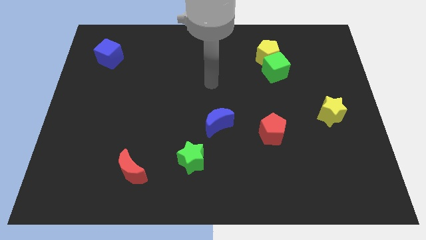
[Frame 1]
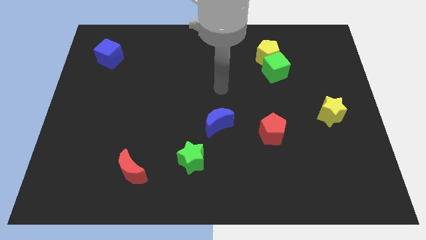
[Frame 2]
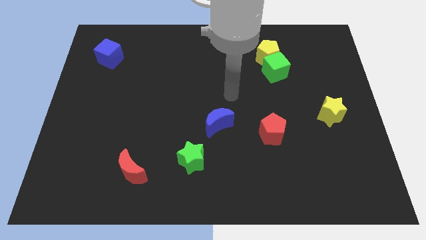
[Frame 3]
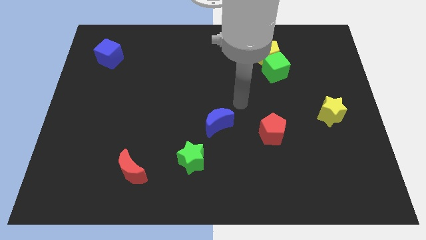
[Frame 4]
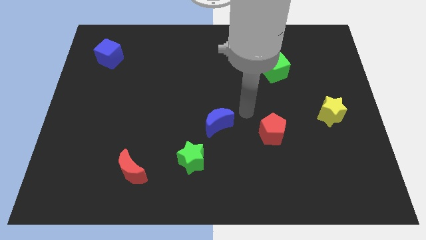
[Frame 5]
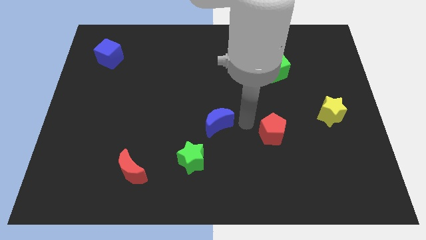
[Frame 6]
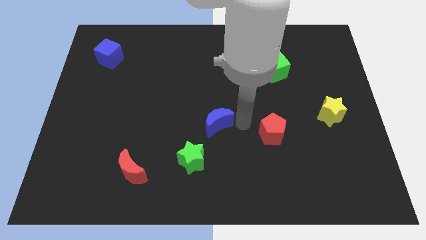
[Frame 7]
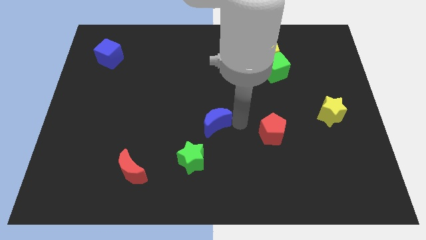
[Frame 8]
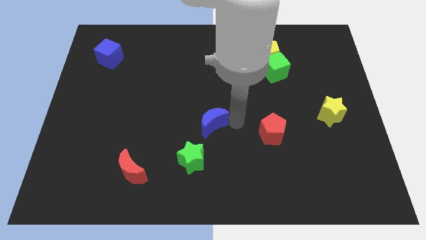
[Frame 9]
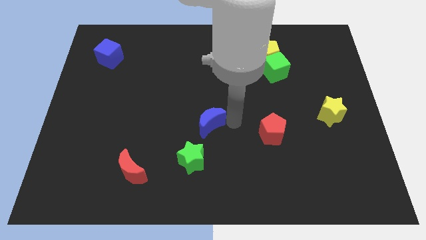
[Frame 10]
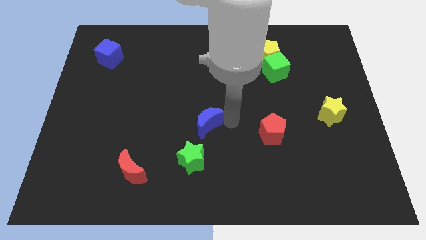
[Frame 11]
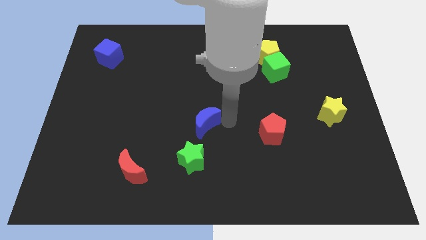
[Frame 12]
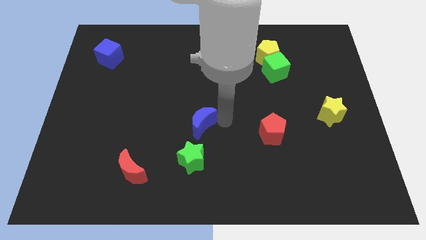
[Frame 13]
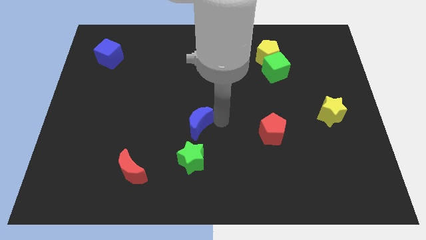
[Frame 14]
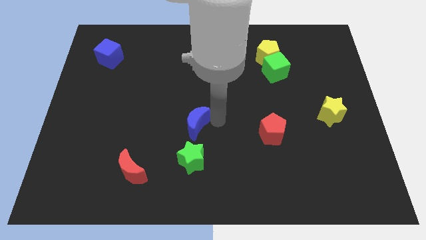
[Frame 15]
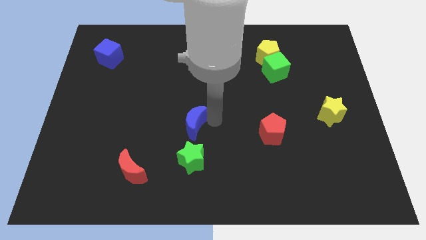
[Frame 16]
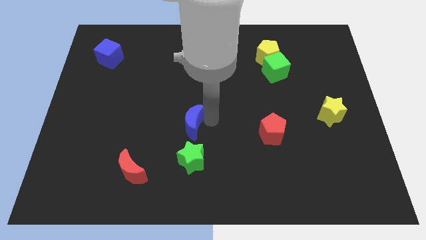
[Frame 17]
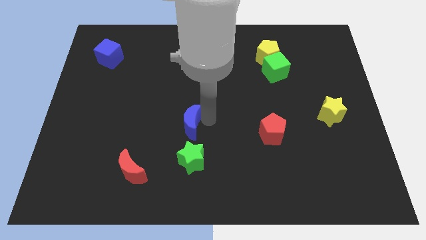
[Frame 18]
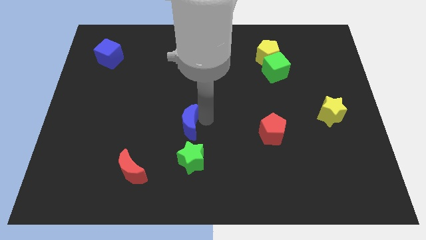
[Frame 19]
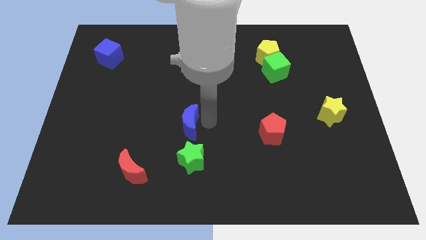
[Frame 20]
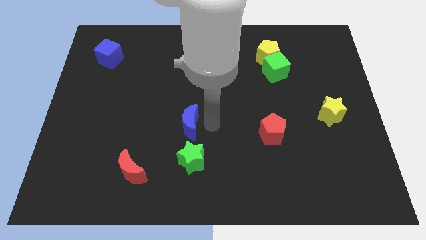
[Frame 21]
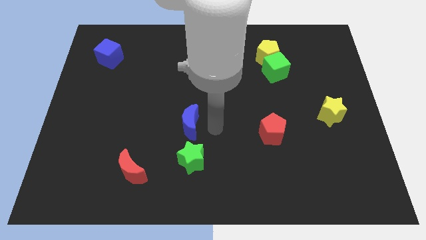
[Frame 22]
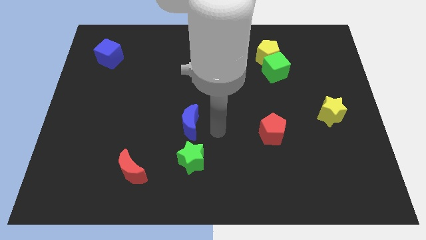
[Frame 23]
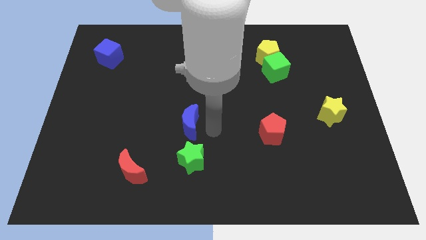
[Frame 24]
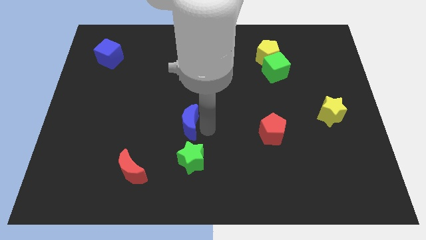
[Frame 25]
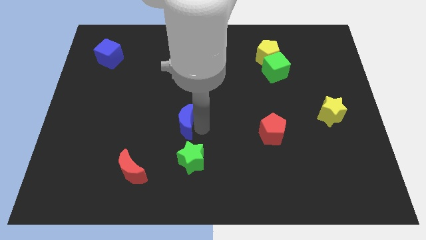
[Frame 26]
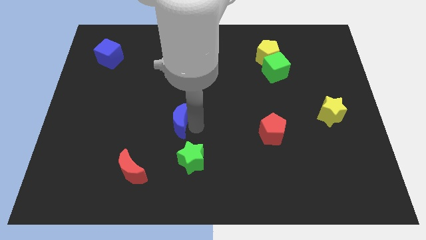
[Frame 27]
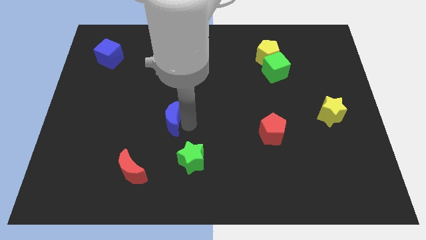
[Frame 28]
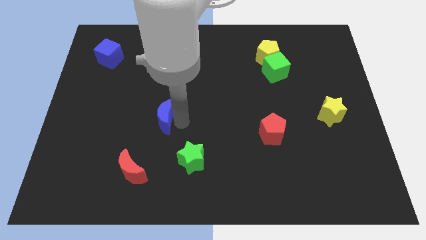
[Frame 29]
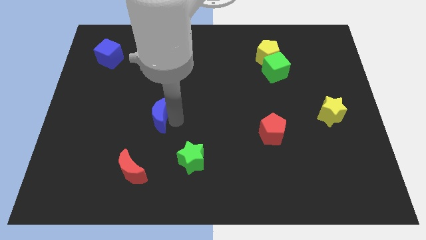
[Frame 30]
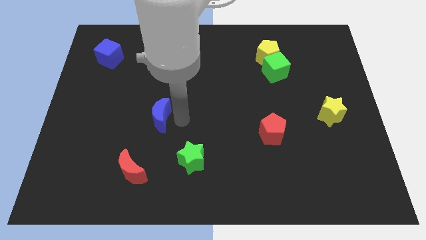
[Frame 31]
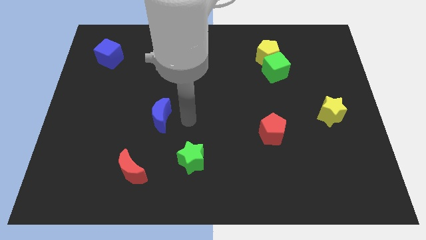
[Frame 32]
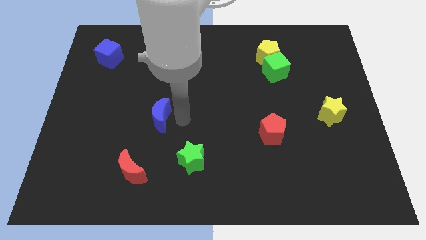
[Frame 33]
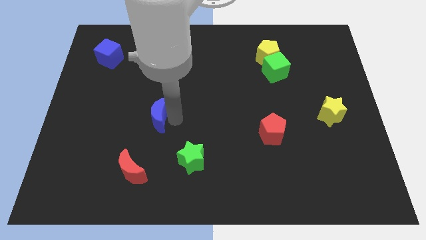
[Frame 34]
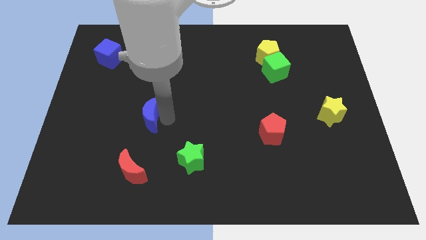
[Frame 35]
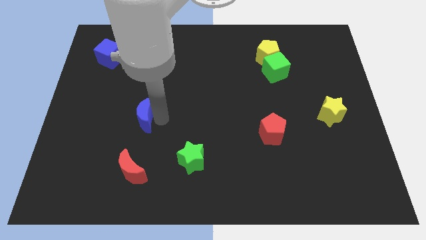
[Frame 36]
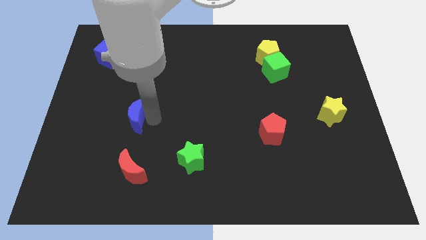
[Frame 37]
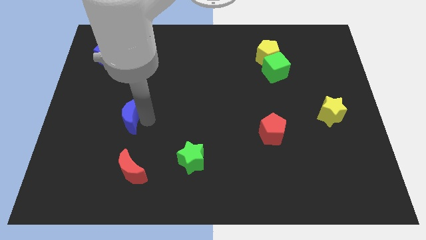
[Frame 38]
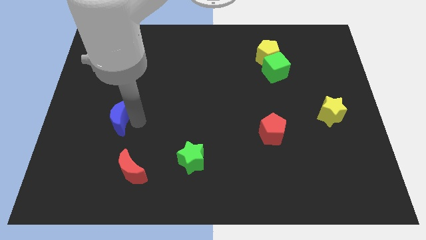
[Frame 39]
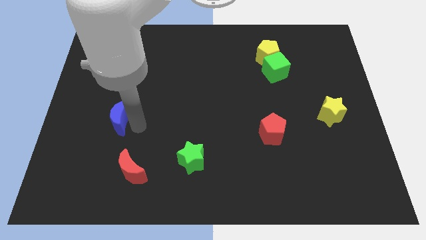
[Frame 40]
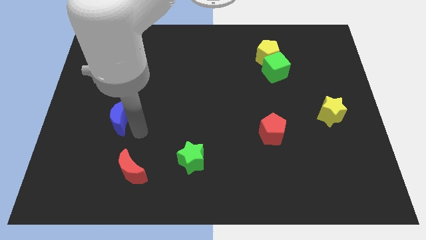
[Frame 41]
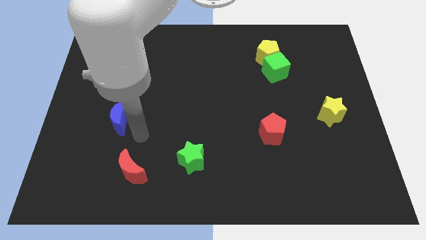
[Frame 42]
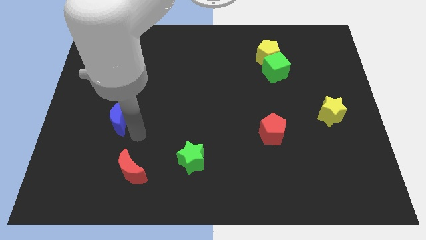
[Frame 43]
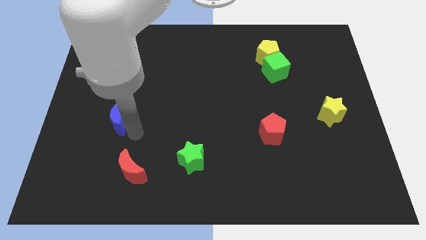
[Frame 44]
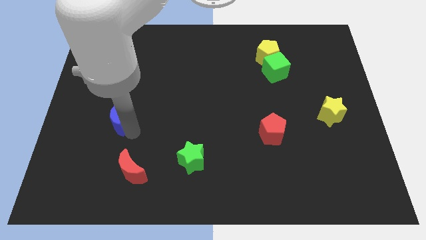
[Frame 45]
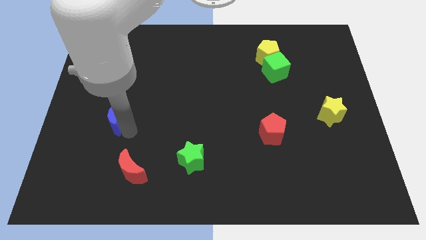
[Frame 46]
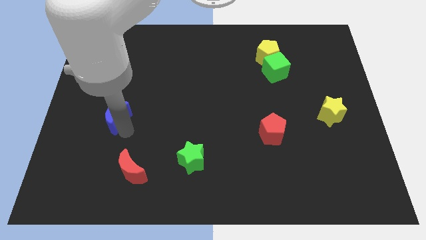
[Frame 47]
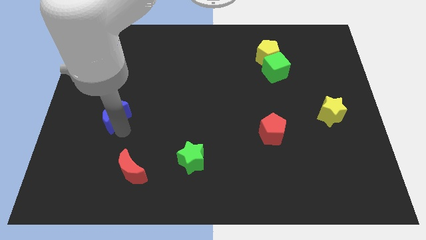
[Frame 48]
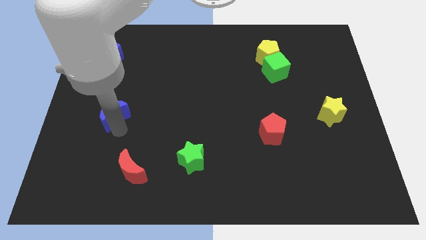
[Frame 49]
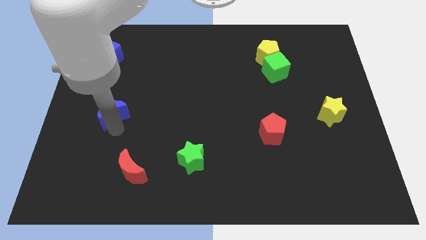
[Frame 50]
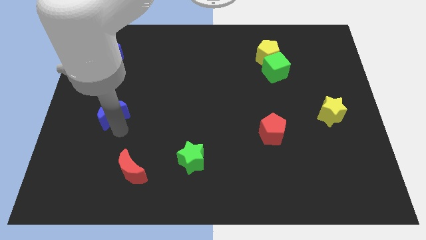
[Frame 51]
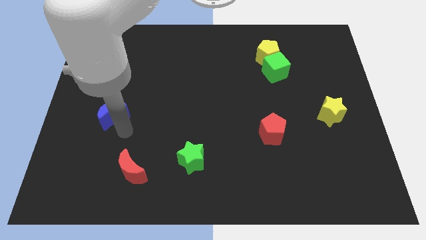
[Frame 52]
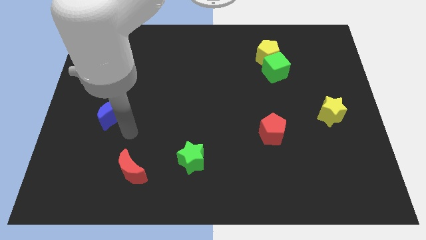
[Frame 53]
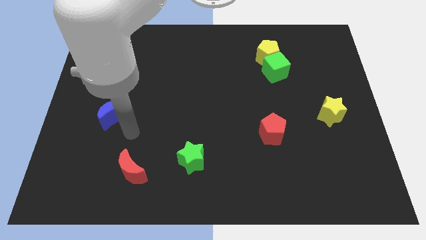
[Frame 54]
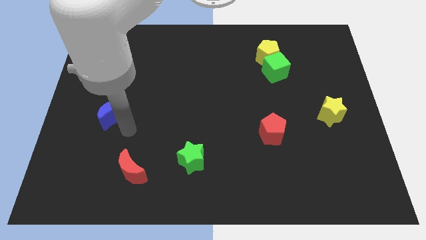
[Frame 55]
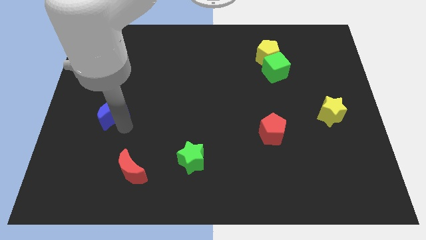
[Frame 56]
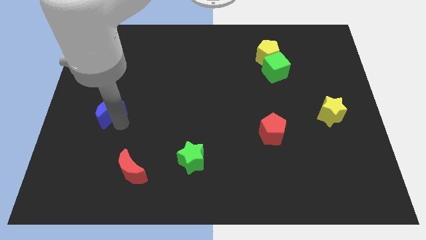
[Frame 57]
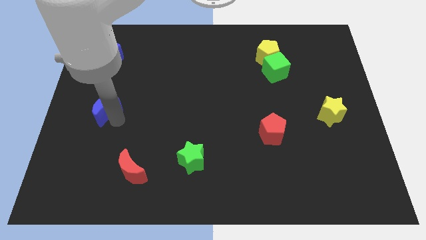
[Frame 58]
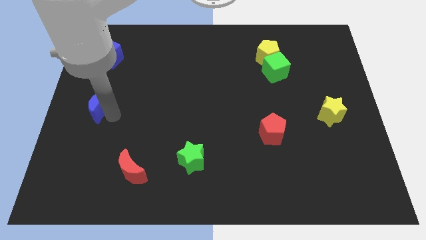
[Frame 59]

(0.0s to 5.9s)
slide the blue moon to the center left

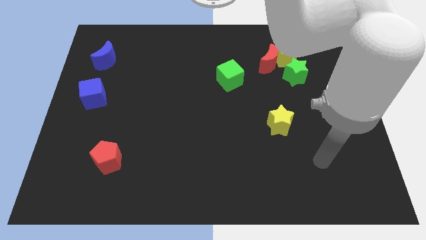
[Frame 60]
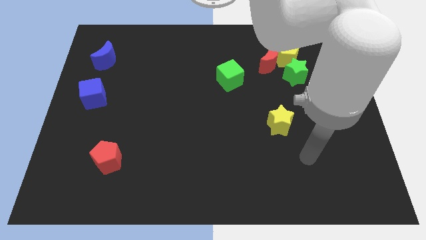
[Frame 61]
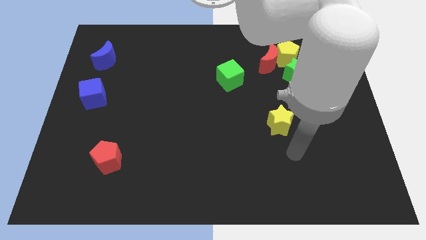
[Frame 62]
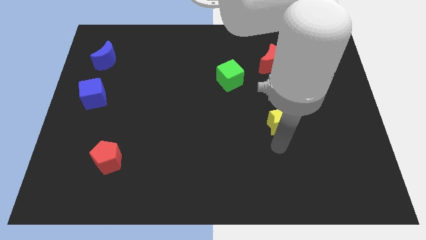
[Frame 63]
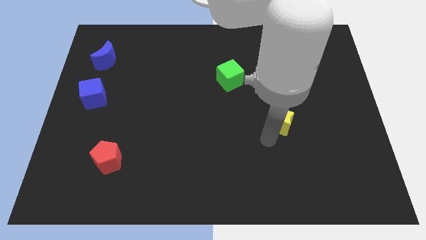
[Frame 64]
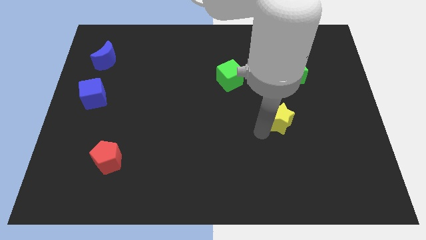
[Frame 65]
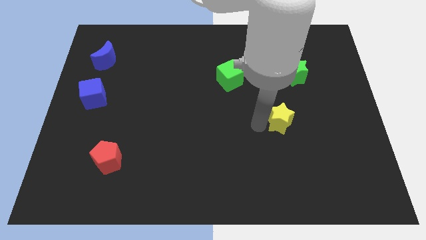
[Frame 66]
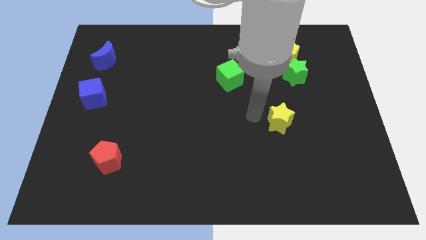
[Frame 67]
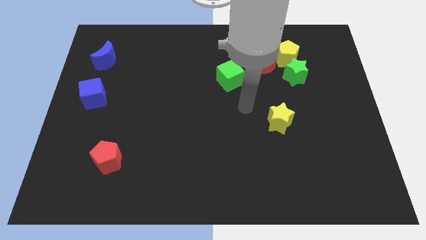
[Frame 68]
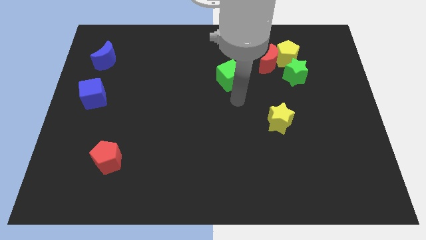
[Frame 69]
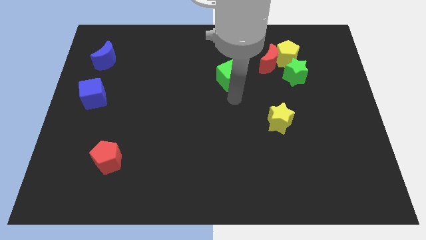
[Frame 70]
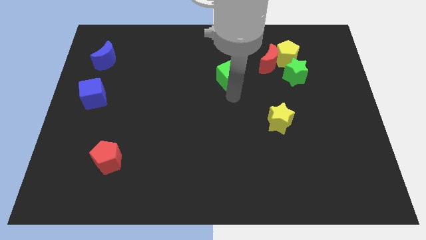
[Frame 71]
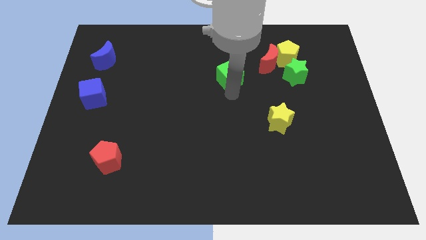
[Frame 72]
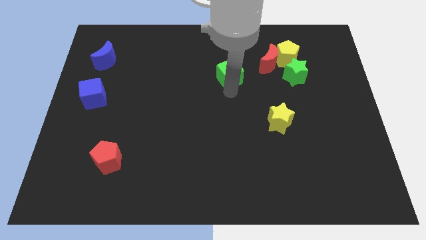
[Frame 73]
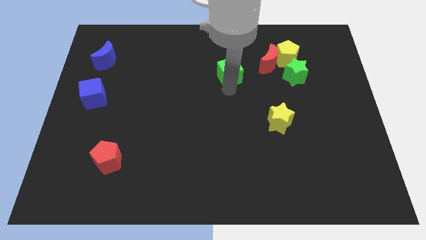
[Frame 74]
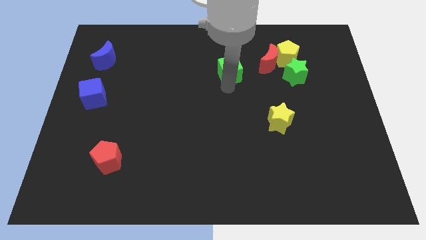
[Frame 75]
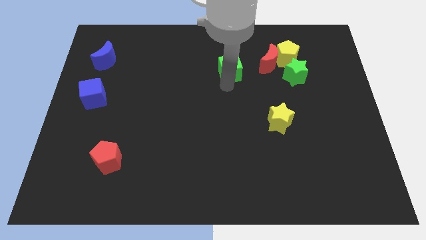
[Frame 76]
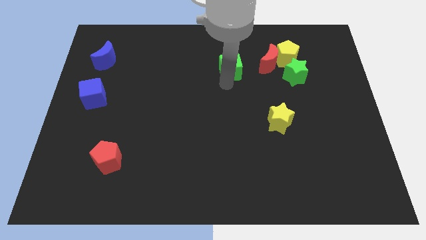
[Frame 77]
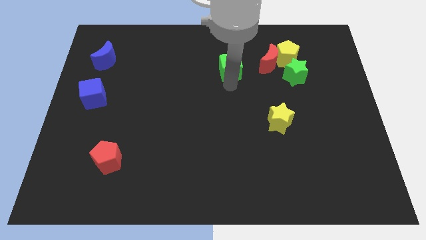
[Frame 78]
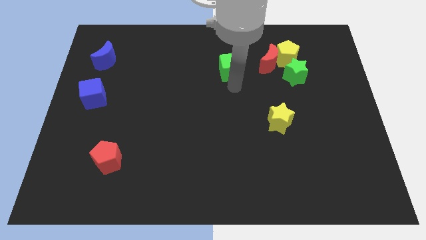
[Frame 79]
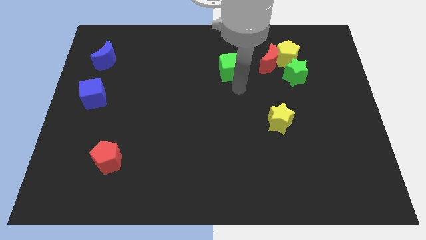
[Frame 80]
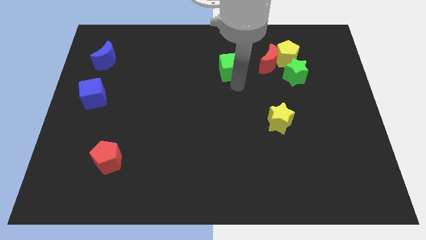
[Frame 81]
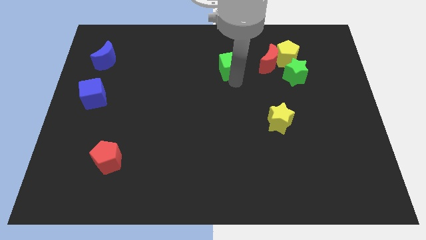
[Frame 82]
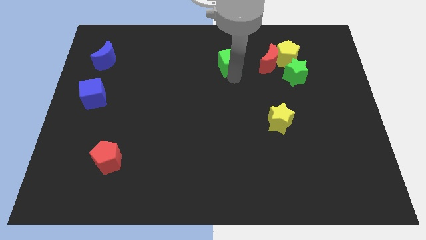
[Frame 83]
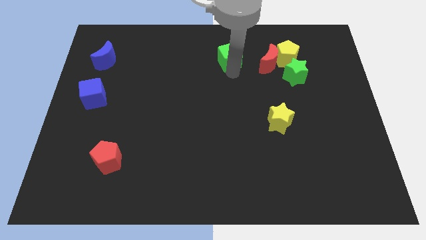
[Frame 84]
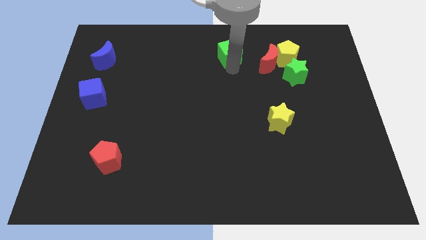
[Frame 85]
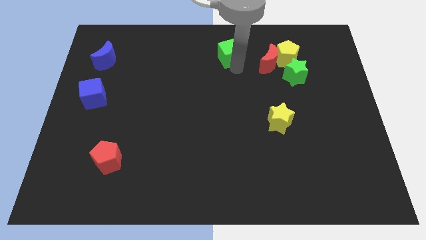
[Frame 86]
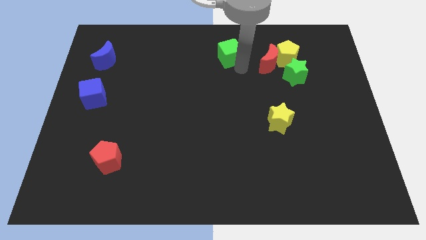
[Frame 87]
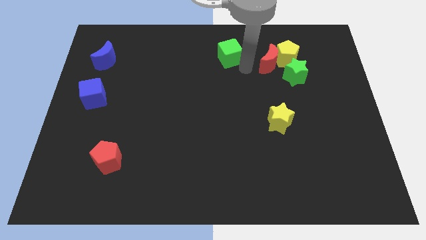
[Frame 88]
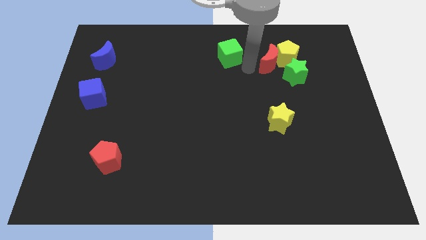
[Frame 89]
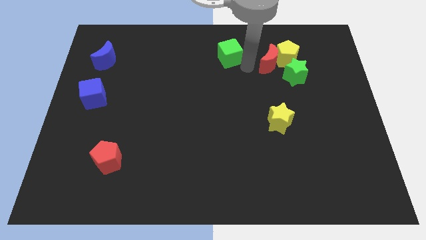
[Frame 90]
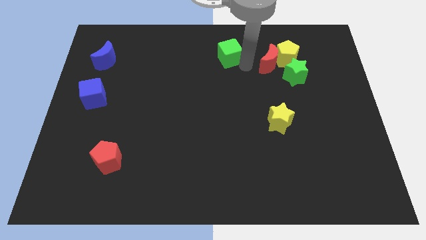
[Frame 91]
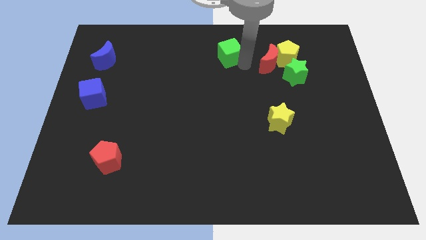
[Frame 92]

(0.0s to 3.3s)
slide the green cube to the top side
